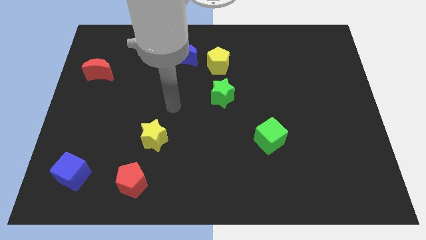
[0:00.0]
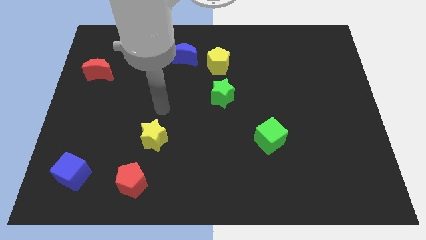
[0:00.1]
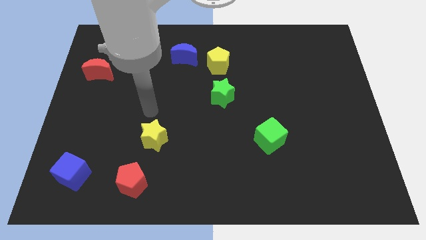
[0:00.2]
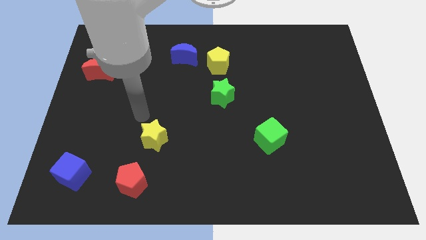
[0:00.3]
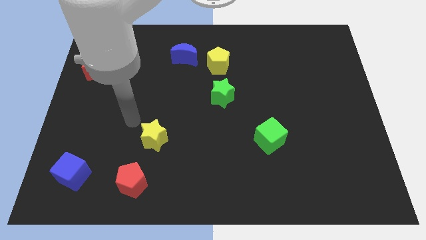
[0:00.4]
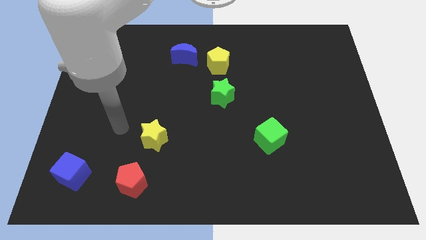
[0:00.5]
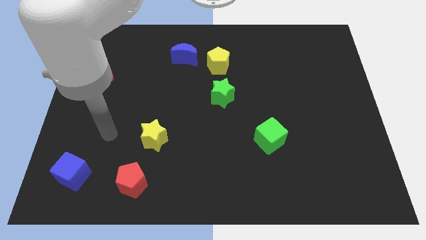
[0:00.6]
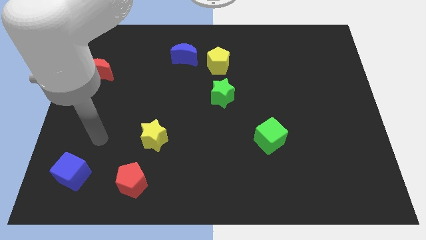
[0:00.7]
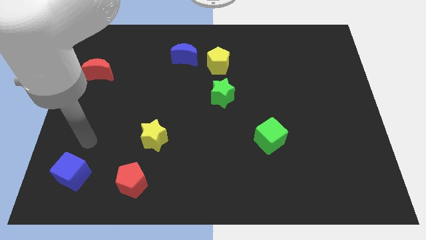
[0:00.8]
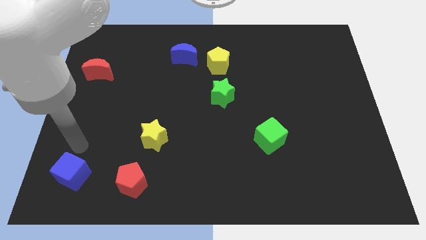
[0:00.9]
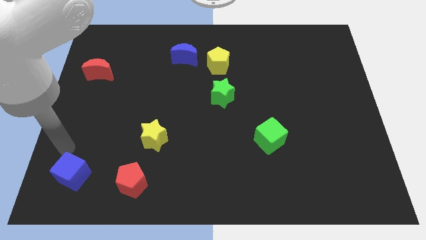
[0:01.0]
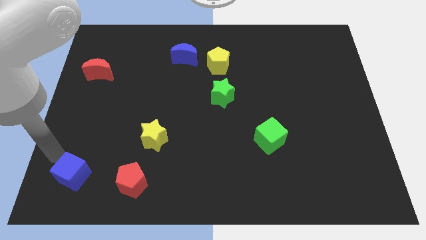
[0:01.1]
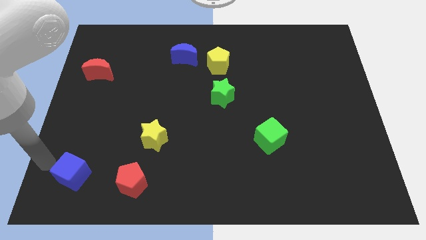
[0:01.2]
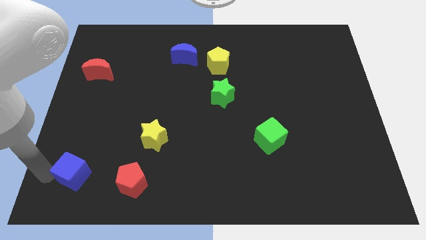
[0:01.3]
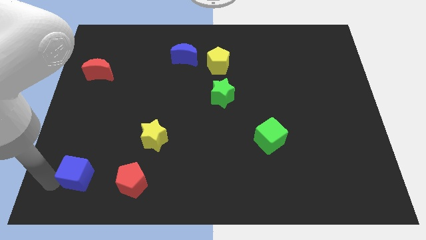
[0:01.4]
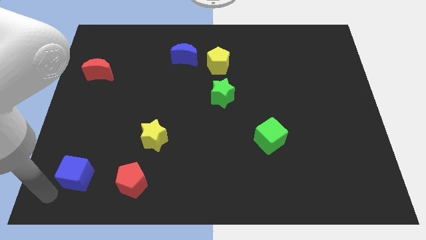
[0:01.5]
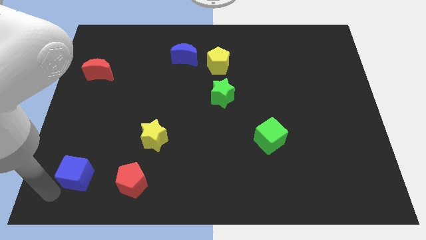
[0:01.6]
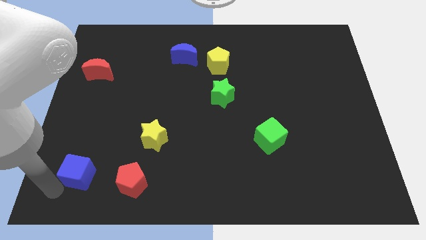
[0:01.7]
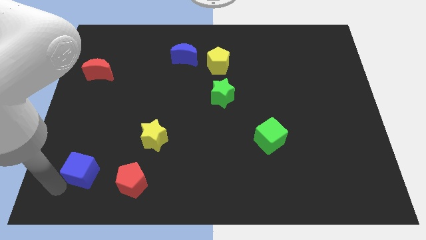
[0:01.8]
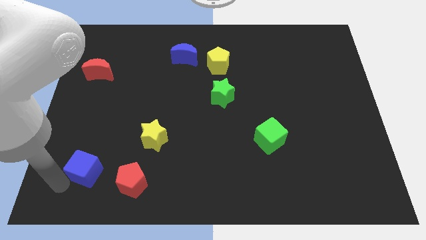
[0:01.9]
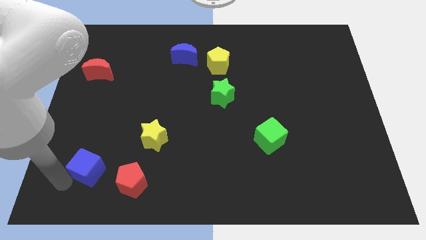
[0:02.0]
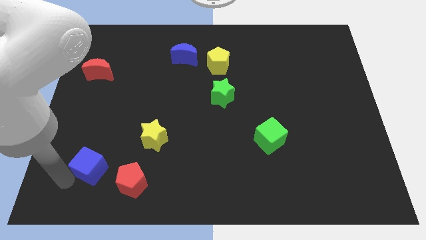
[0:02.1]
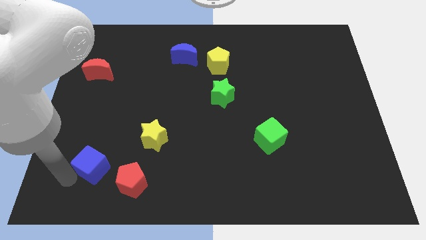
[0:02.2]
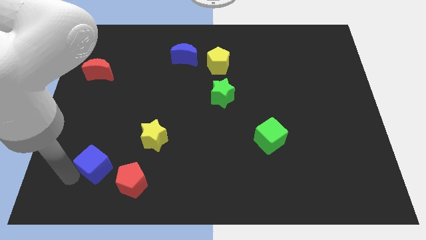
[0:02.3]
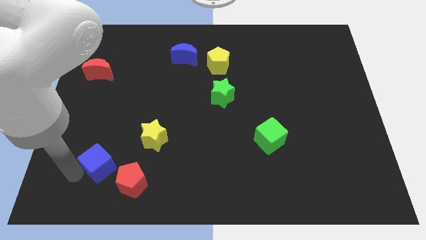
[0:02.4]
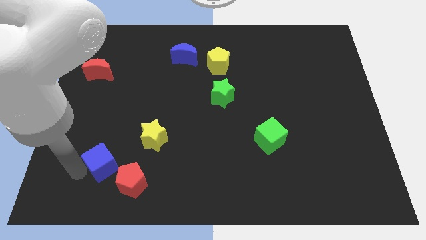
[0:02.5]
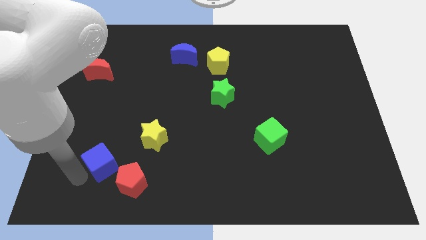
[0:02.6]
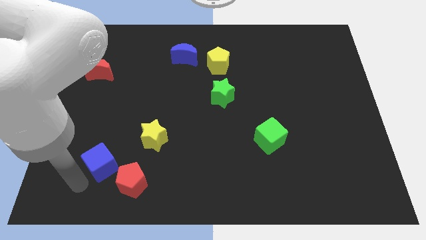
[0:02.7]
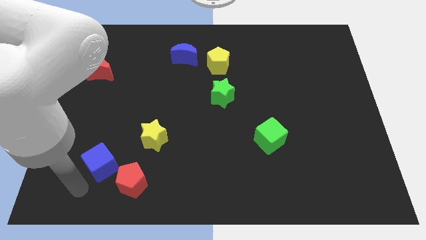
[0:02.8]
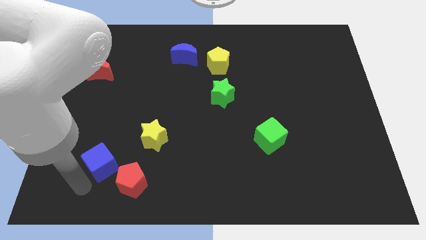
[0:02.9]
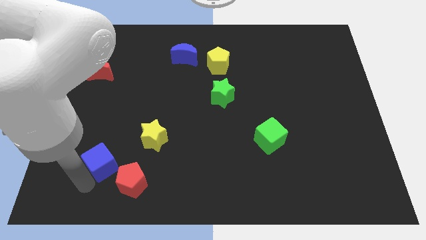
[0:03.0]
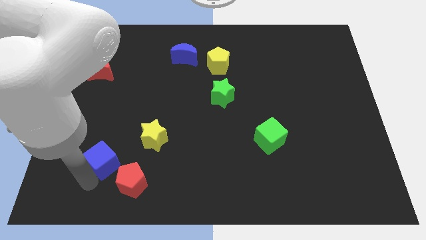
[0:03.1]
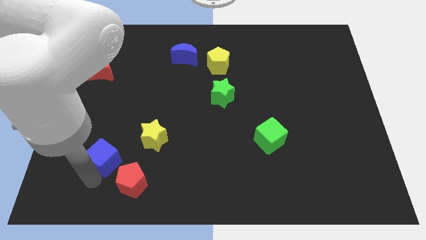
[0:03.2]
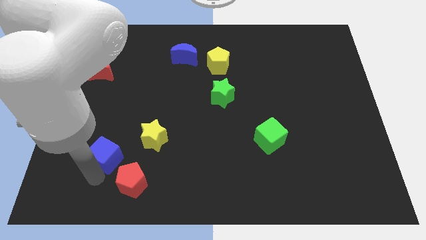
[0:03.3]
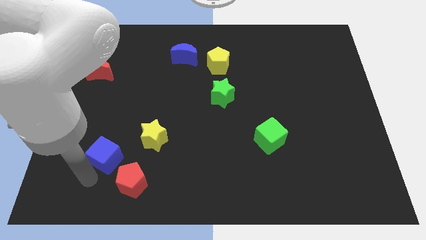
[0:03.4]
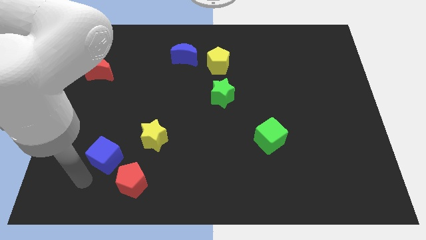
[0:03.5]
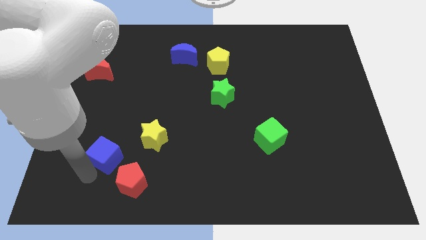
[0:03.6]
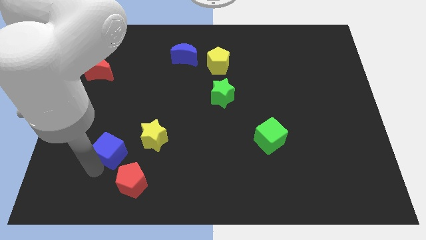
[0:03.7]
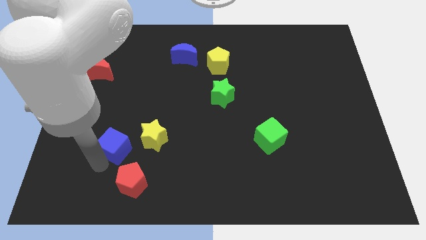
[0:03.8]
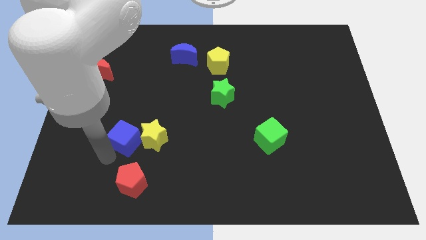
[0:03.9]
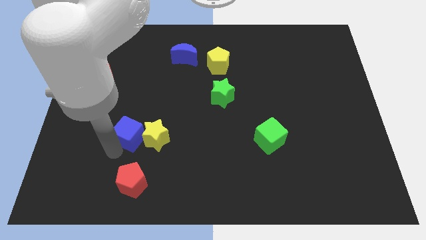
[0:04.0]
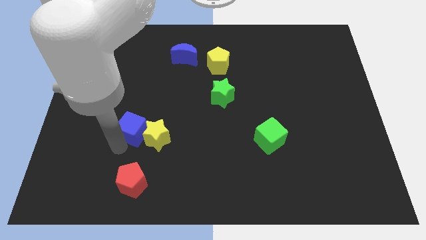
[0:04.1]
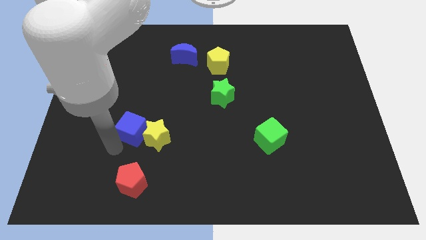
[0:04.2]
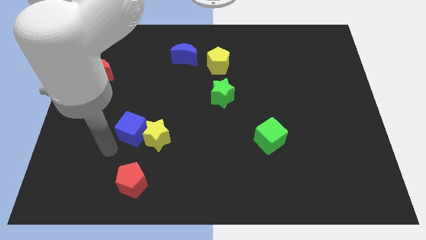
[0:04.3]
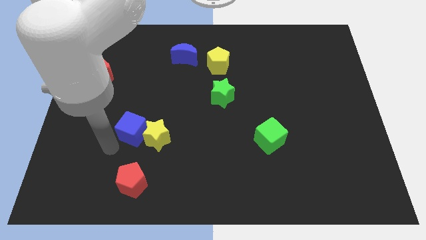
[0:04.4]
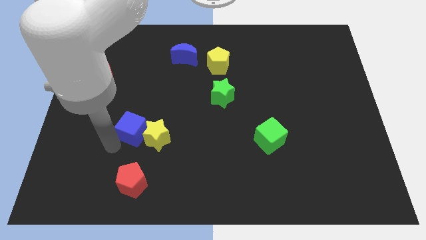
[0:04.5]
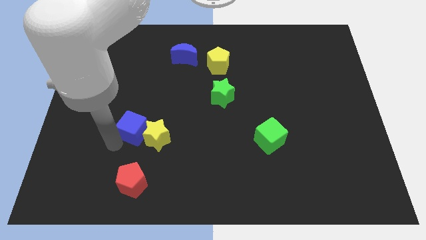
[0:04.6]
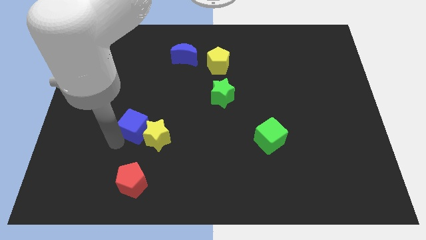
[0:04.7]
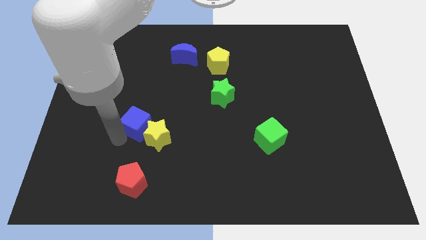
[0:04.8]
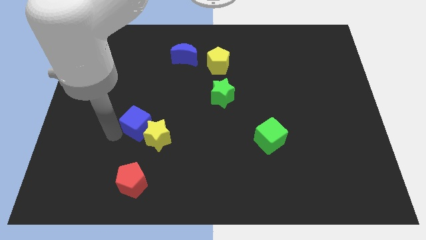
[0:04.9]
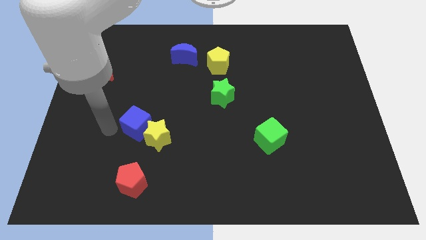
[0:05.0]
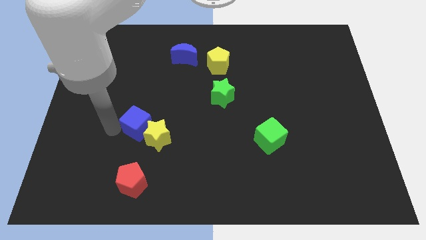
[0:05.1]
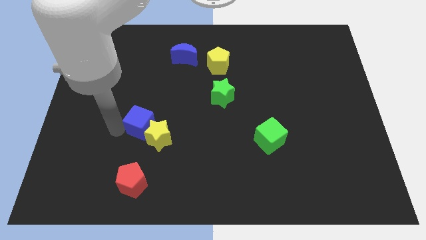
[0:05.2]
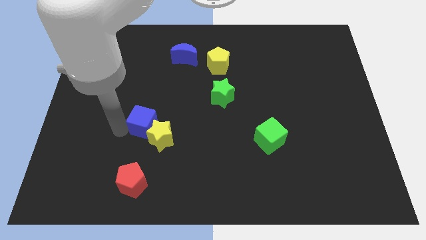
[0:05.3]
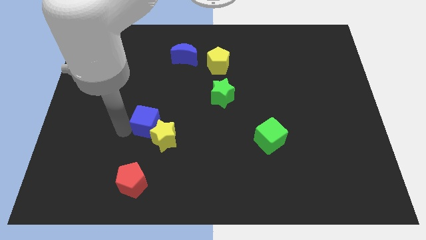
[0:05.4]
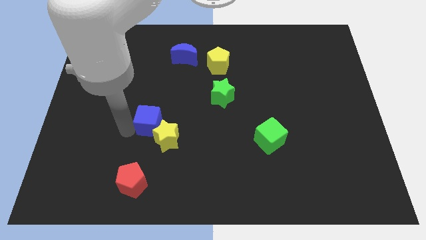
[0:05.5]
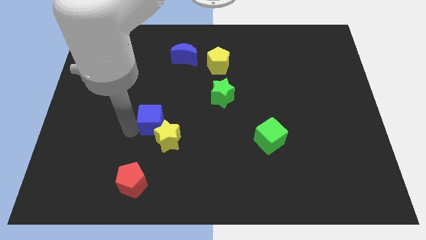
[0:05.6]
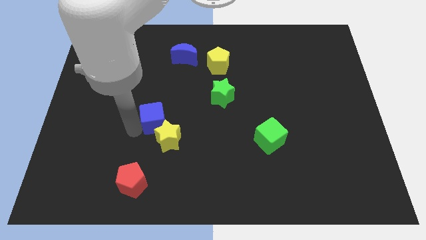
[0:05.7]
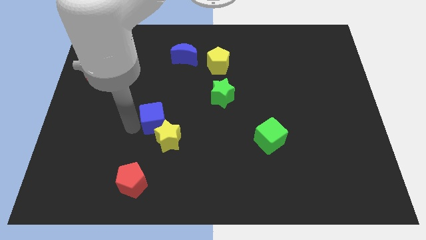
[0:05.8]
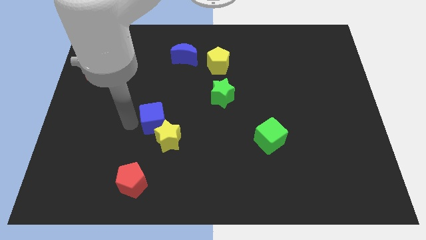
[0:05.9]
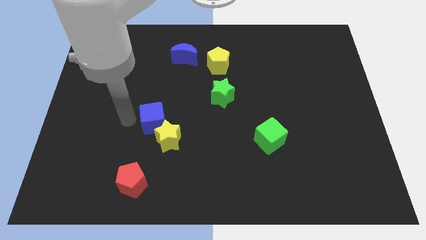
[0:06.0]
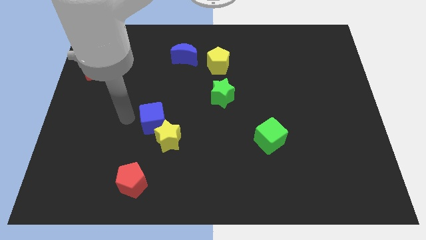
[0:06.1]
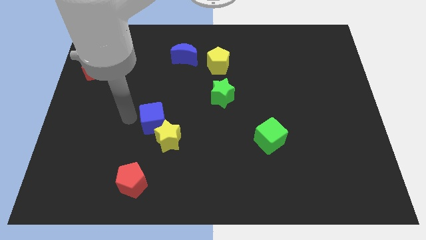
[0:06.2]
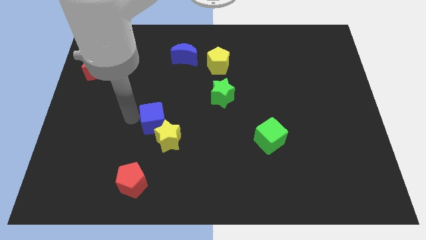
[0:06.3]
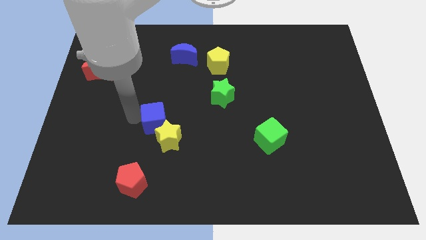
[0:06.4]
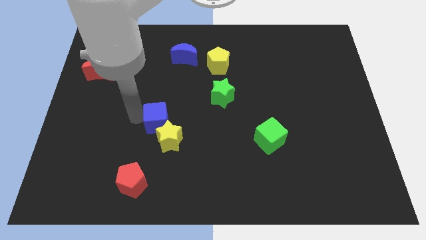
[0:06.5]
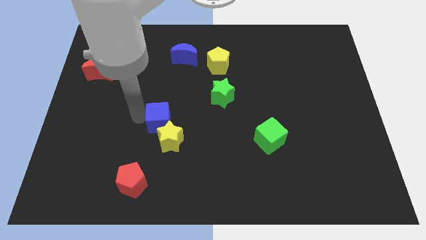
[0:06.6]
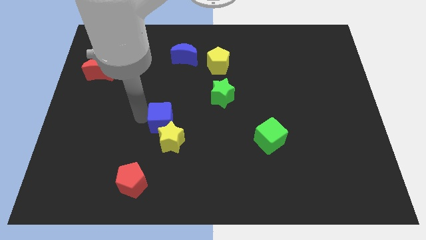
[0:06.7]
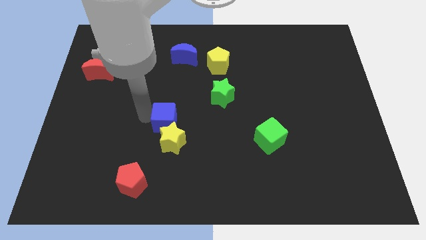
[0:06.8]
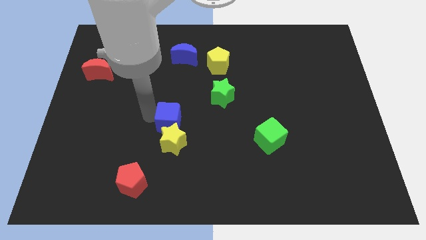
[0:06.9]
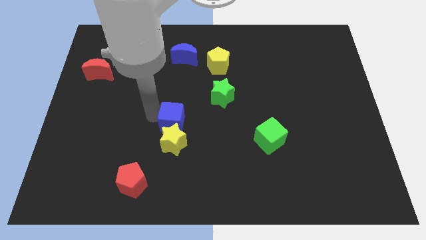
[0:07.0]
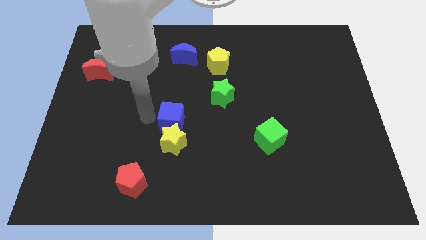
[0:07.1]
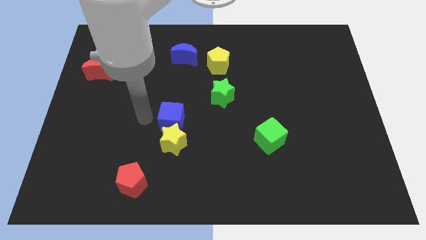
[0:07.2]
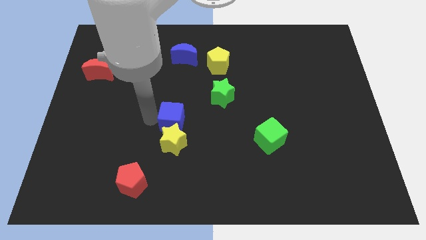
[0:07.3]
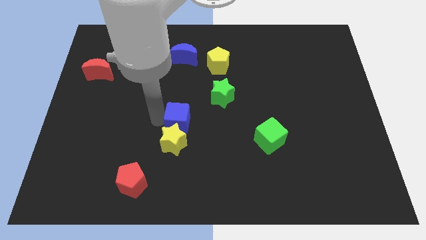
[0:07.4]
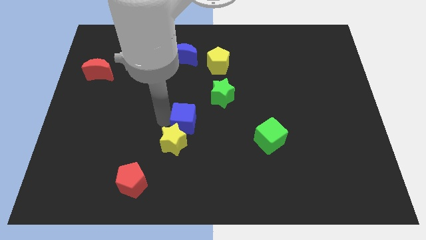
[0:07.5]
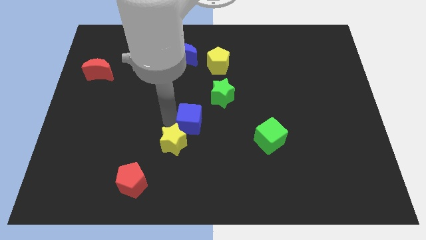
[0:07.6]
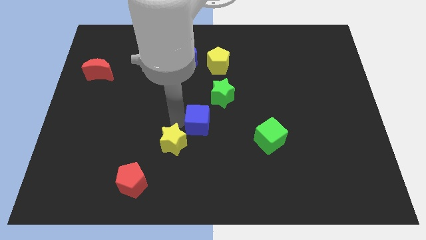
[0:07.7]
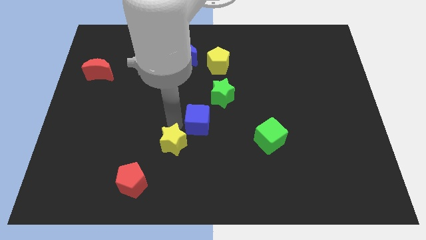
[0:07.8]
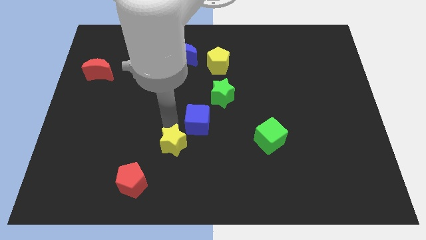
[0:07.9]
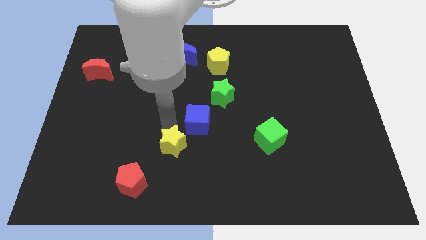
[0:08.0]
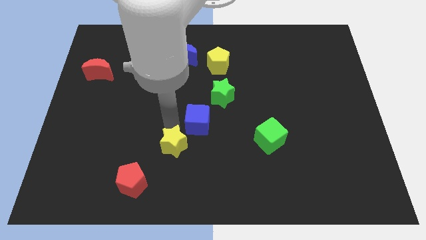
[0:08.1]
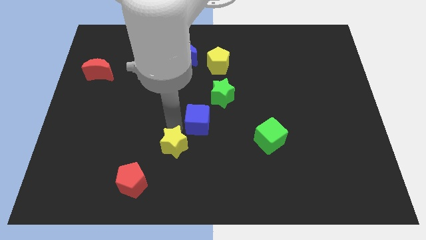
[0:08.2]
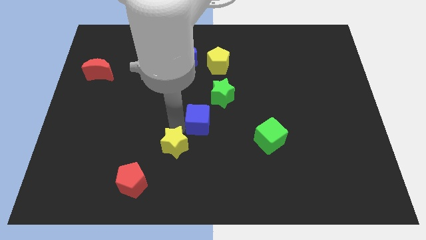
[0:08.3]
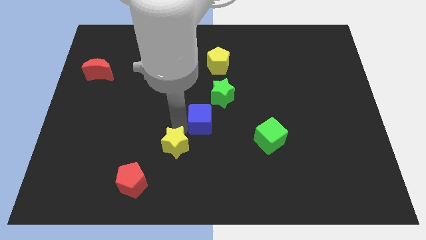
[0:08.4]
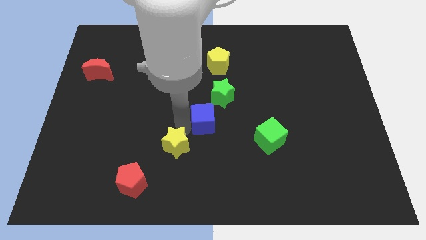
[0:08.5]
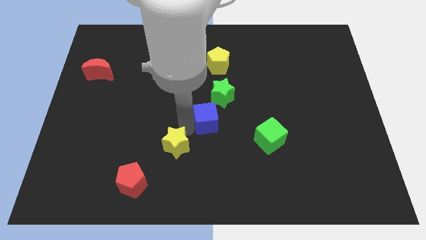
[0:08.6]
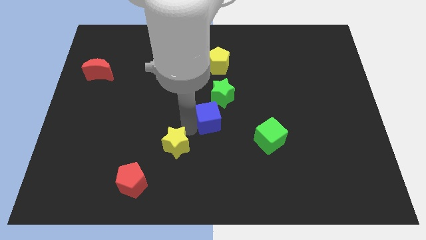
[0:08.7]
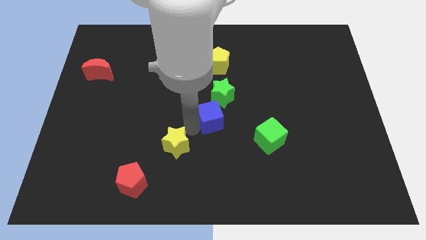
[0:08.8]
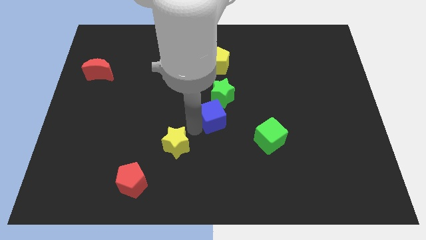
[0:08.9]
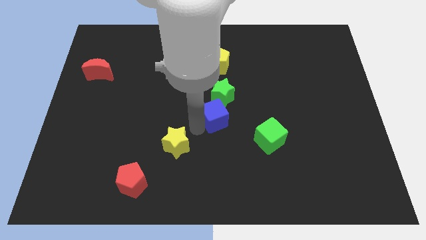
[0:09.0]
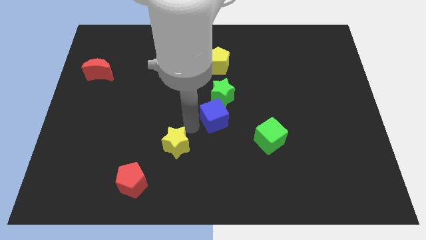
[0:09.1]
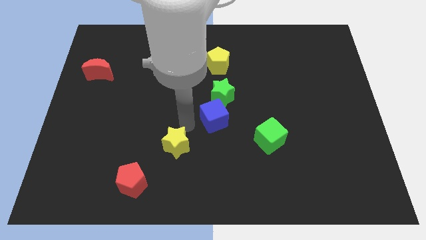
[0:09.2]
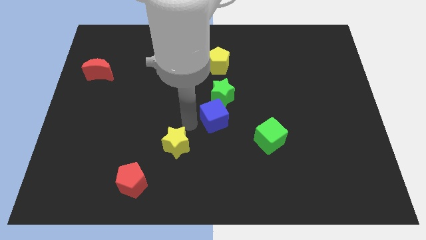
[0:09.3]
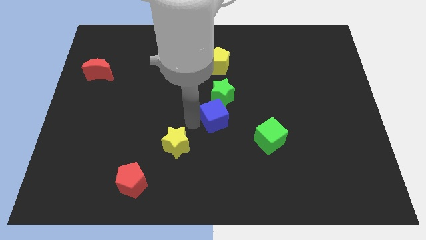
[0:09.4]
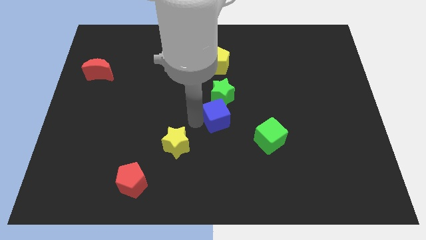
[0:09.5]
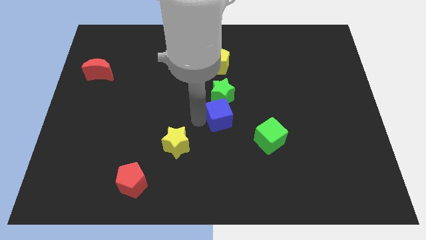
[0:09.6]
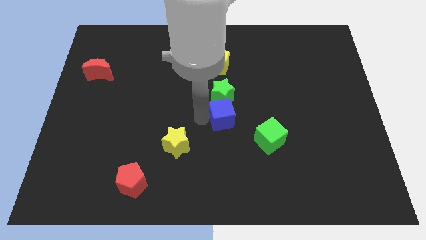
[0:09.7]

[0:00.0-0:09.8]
put the blue cube diagonally down and to the right of the green star
